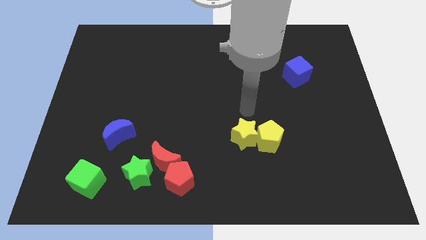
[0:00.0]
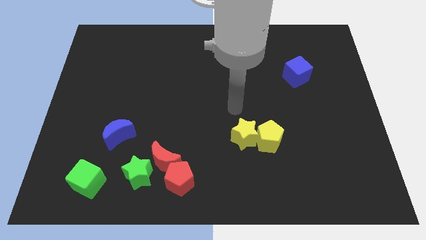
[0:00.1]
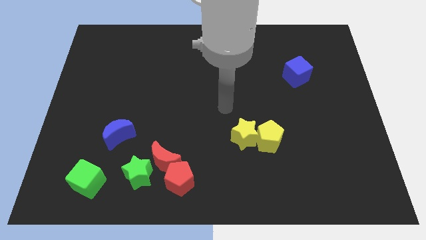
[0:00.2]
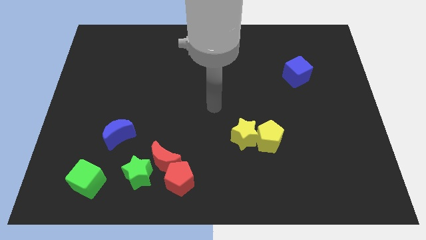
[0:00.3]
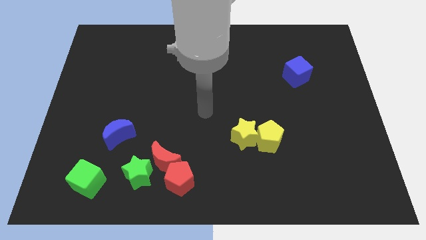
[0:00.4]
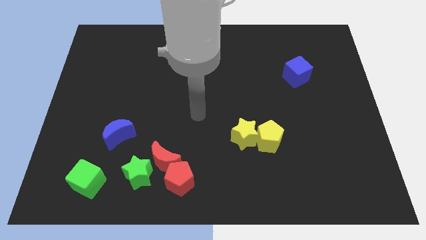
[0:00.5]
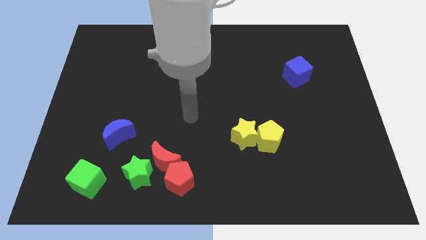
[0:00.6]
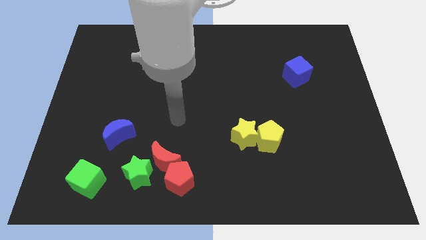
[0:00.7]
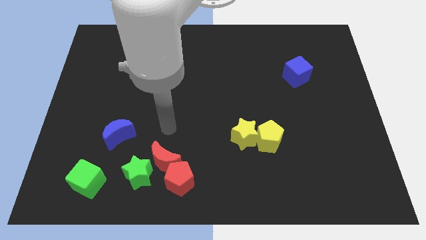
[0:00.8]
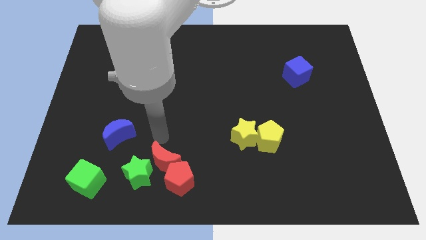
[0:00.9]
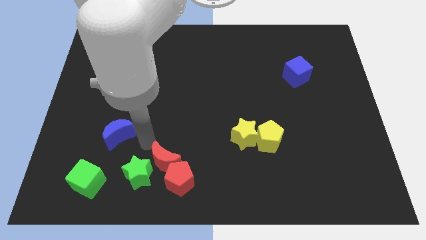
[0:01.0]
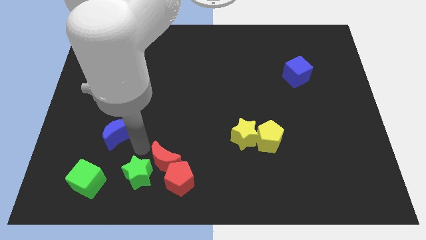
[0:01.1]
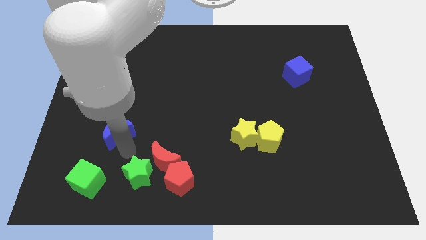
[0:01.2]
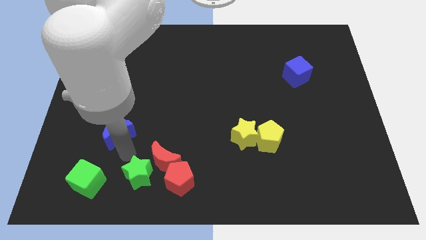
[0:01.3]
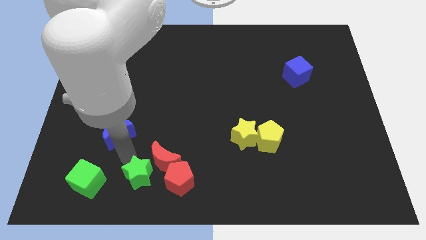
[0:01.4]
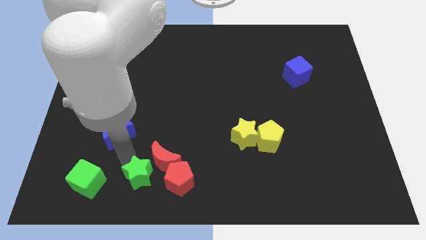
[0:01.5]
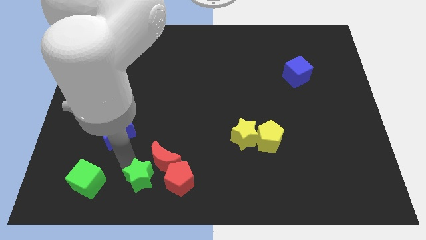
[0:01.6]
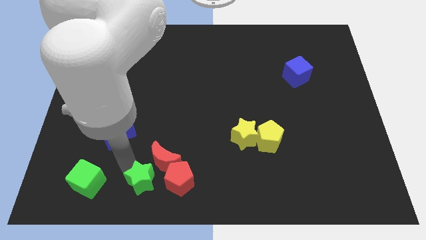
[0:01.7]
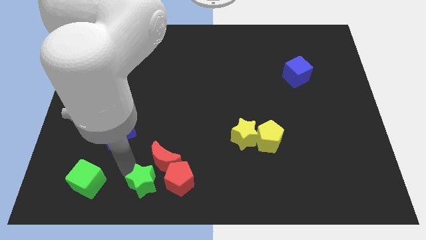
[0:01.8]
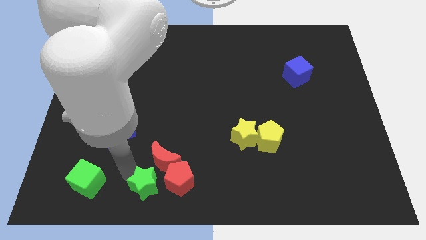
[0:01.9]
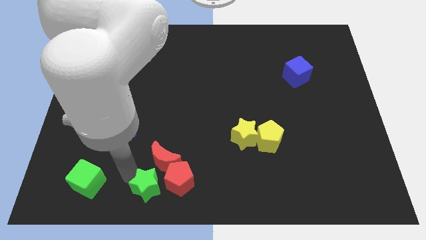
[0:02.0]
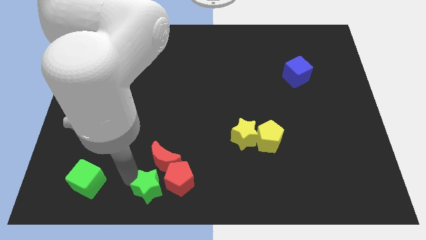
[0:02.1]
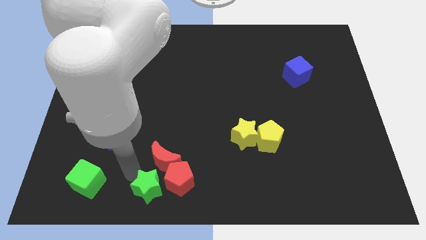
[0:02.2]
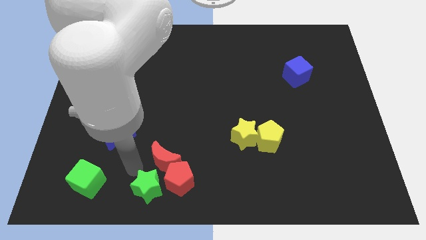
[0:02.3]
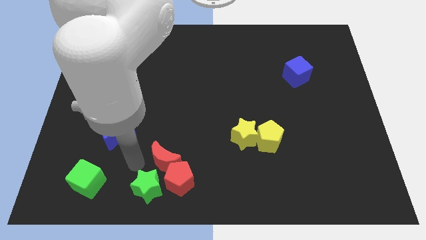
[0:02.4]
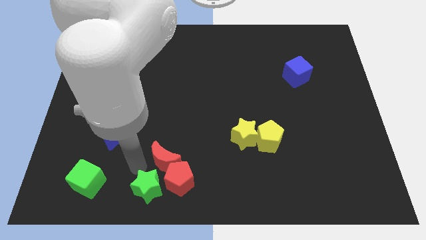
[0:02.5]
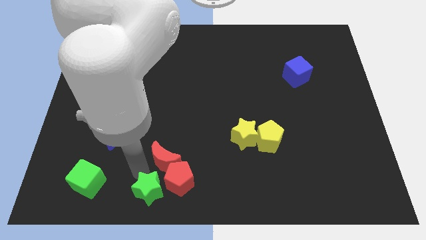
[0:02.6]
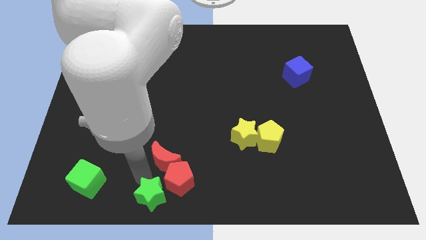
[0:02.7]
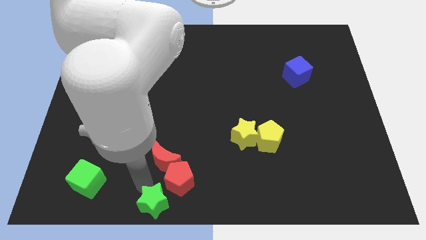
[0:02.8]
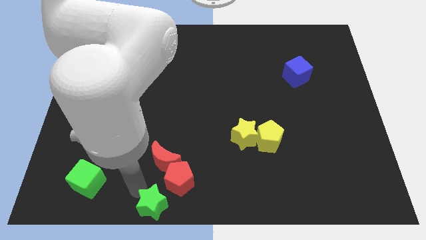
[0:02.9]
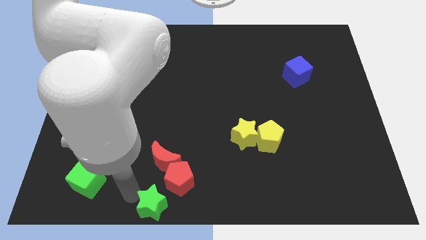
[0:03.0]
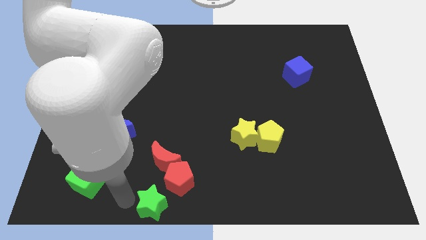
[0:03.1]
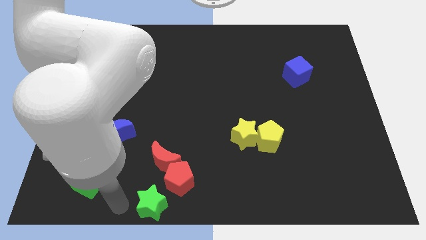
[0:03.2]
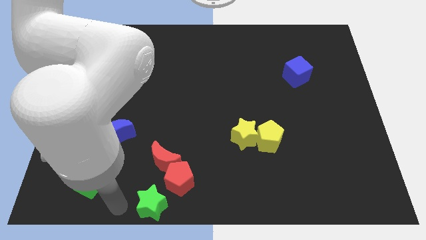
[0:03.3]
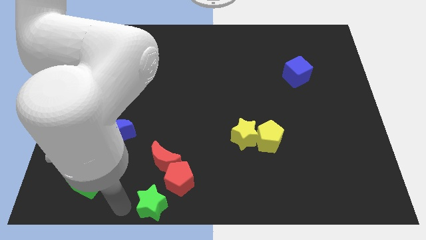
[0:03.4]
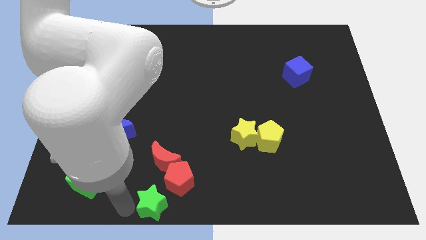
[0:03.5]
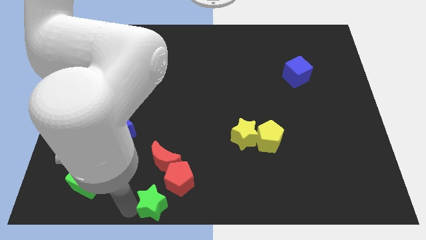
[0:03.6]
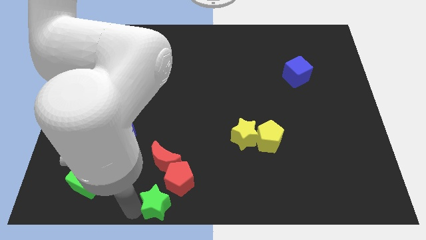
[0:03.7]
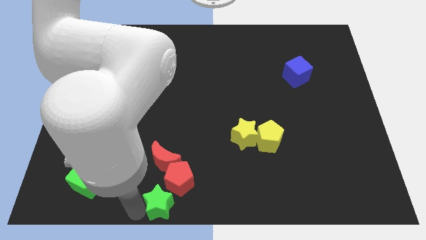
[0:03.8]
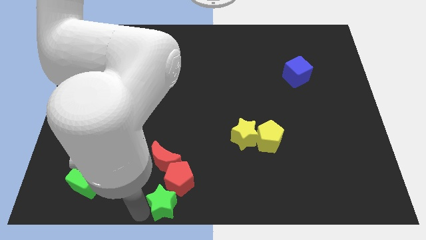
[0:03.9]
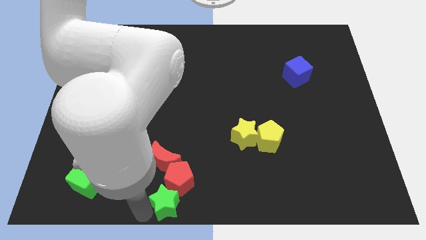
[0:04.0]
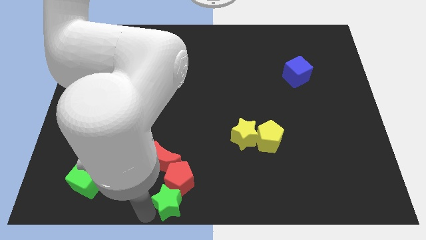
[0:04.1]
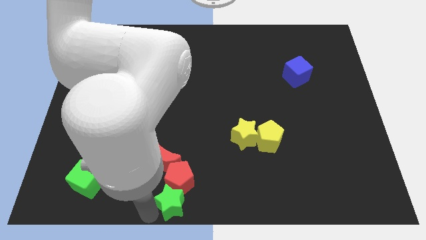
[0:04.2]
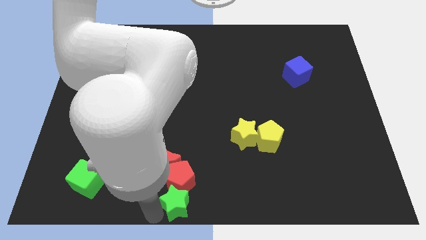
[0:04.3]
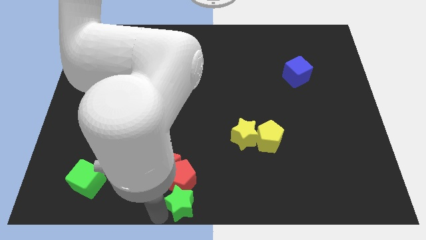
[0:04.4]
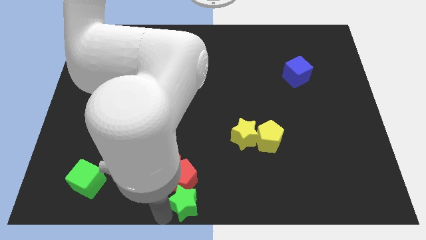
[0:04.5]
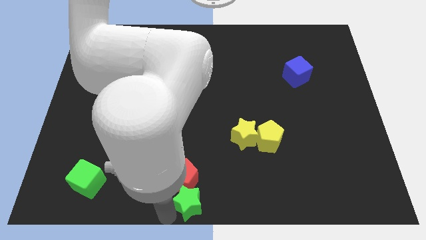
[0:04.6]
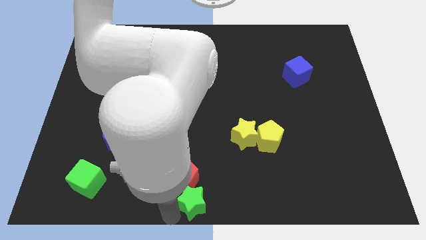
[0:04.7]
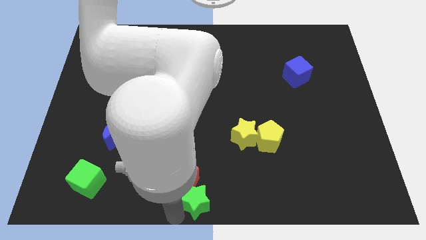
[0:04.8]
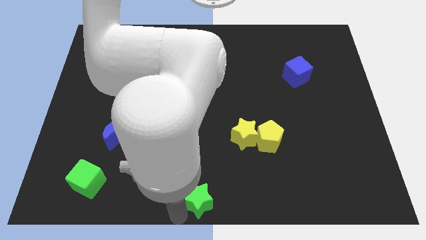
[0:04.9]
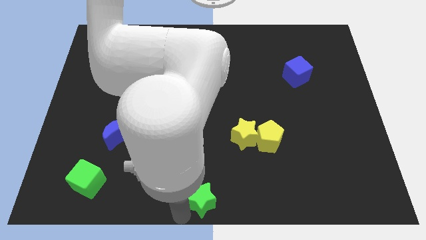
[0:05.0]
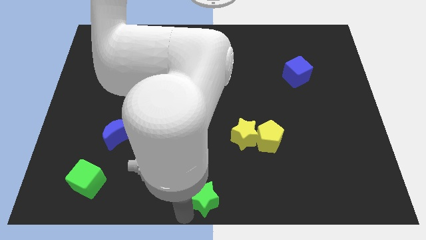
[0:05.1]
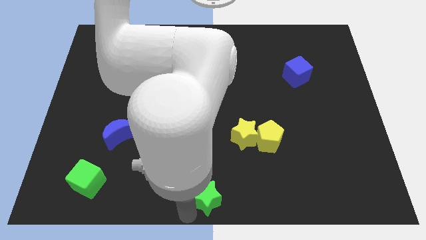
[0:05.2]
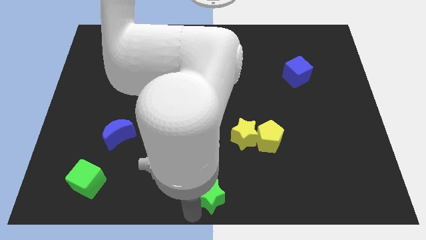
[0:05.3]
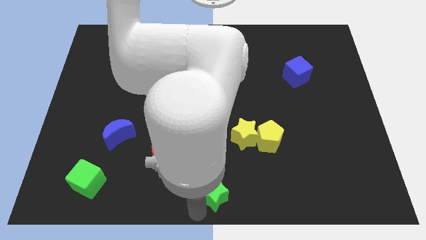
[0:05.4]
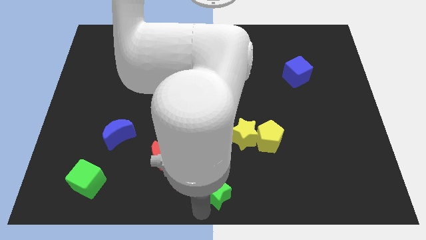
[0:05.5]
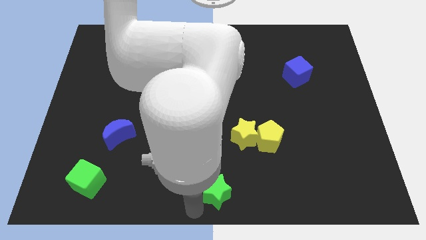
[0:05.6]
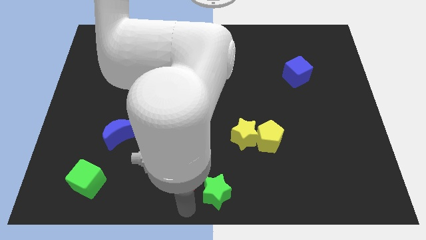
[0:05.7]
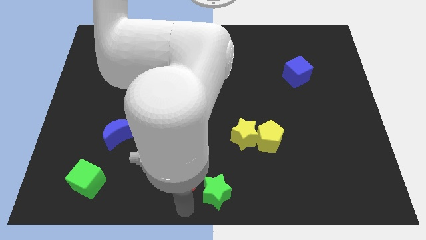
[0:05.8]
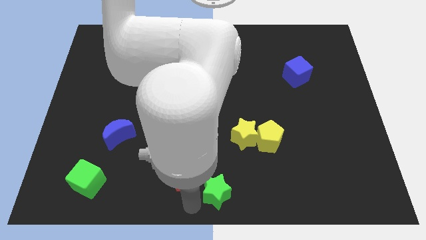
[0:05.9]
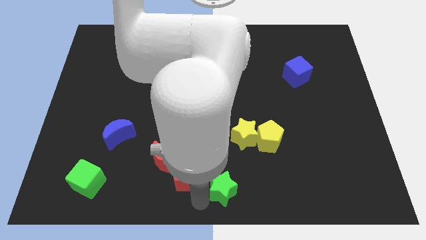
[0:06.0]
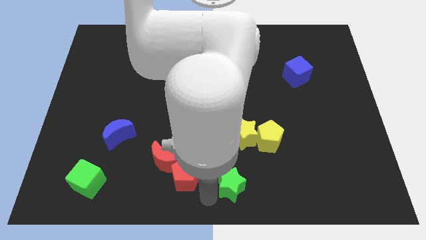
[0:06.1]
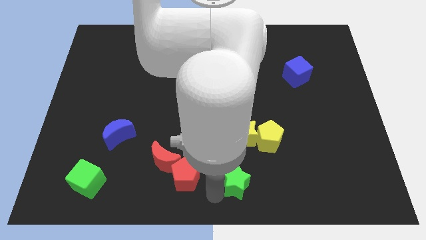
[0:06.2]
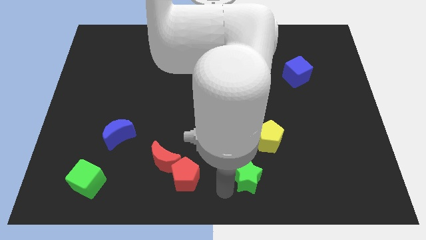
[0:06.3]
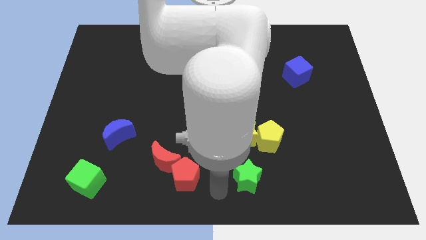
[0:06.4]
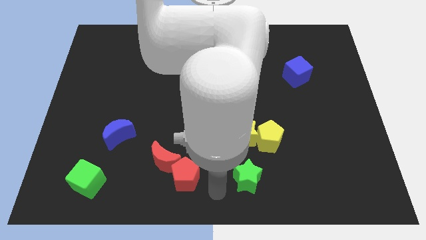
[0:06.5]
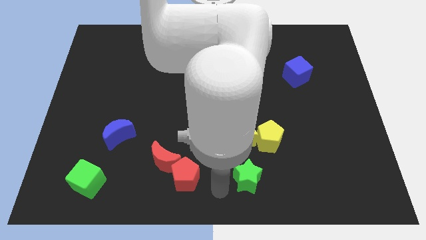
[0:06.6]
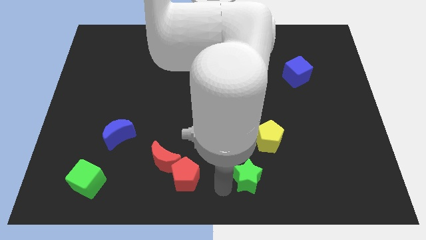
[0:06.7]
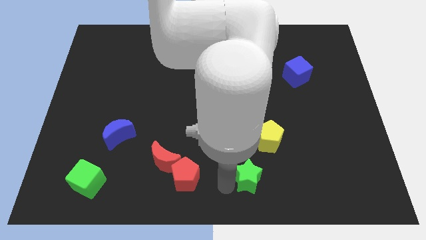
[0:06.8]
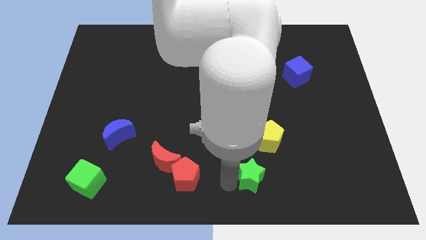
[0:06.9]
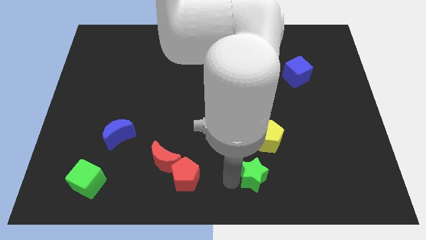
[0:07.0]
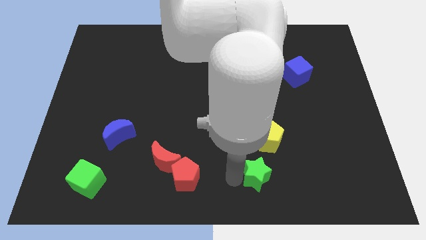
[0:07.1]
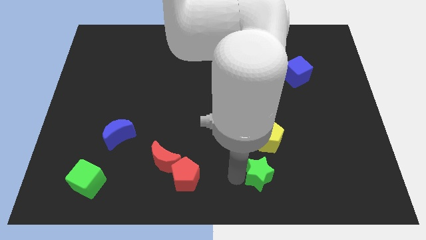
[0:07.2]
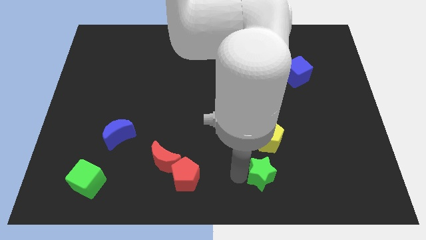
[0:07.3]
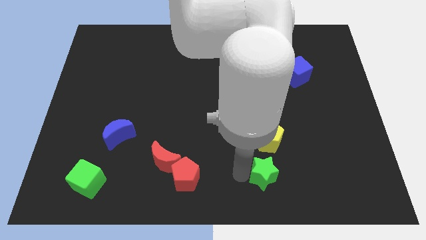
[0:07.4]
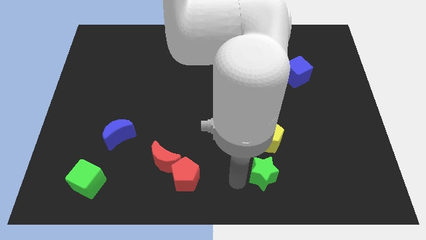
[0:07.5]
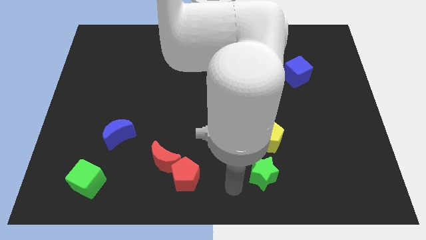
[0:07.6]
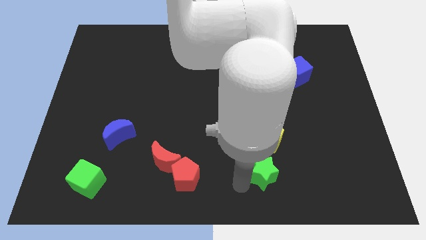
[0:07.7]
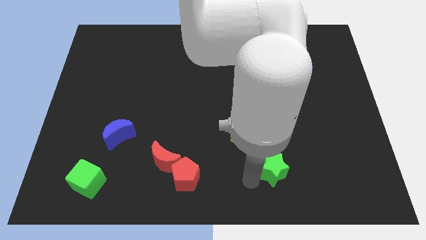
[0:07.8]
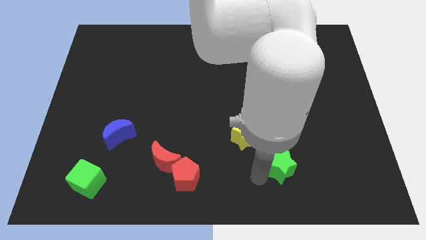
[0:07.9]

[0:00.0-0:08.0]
slide the green star to the bottom right of the yellow pentagon

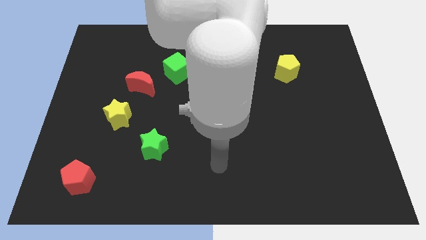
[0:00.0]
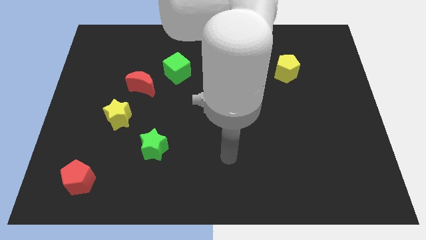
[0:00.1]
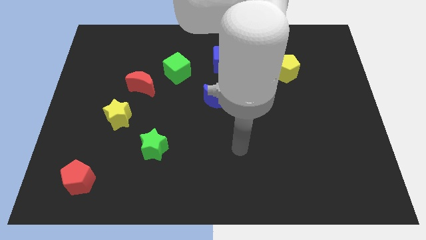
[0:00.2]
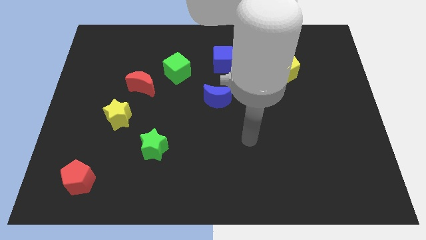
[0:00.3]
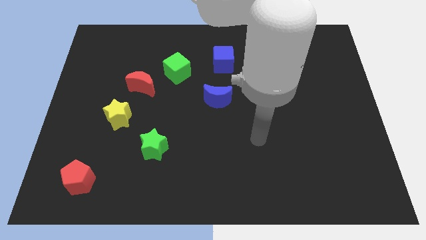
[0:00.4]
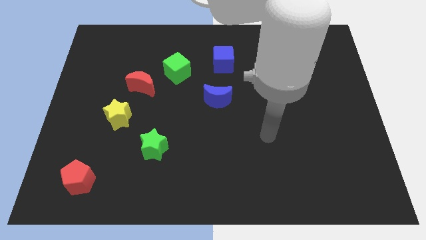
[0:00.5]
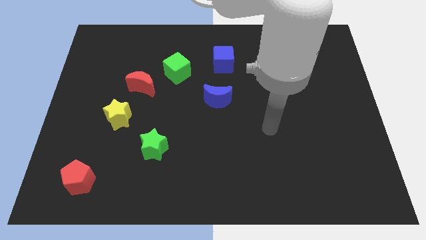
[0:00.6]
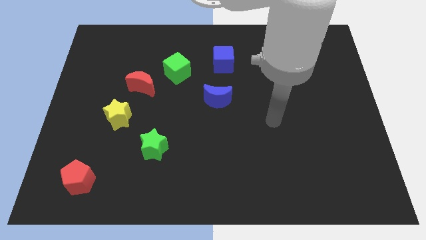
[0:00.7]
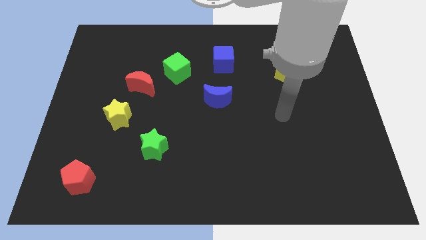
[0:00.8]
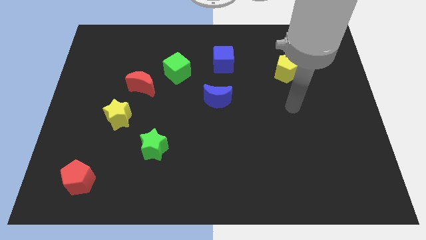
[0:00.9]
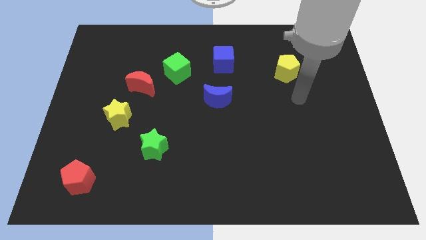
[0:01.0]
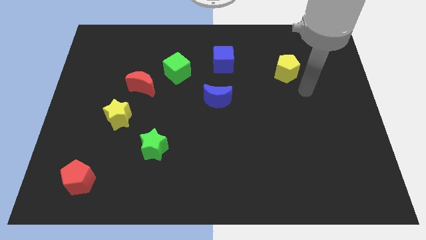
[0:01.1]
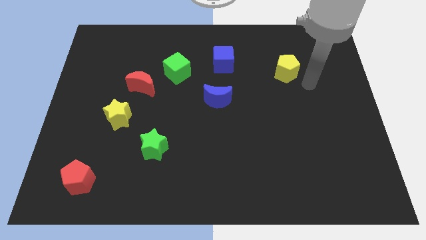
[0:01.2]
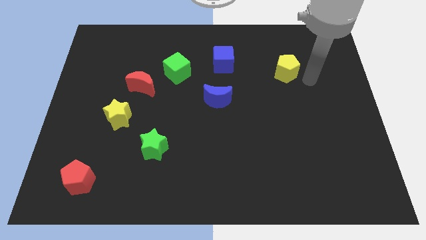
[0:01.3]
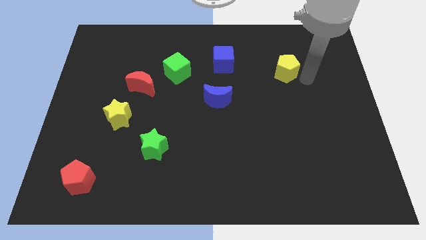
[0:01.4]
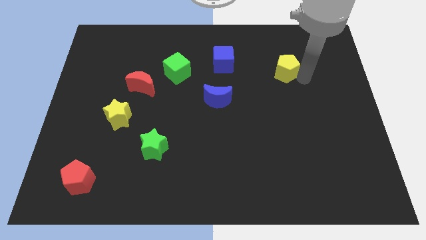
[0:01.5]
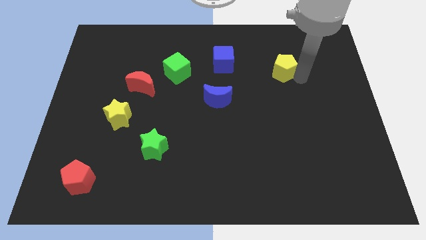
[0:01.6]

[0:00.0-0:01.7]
move the yellow pentagon to the right side of the blue cube
